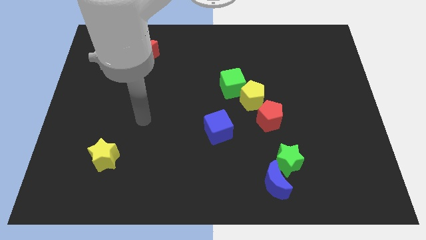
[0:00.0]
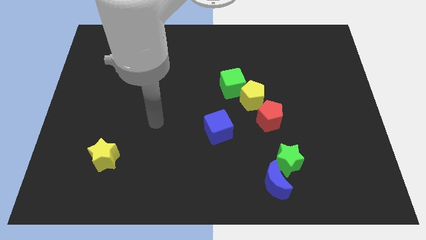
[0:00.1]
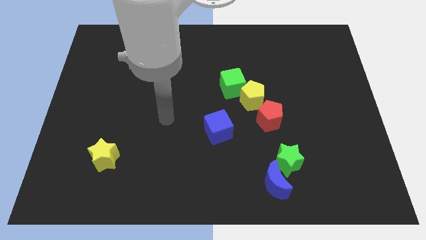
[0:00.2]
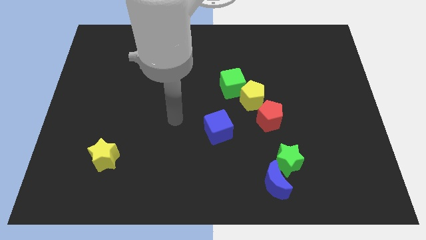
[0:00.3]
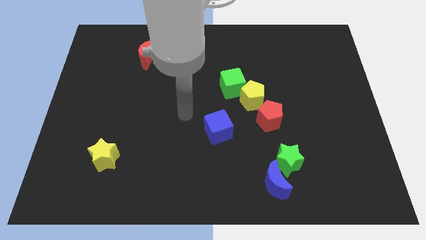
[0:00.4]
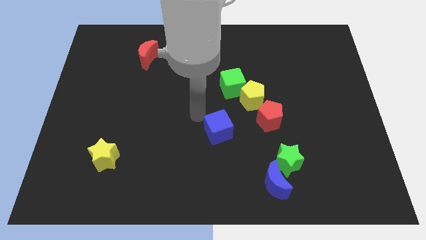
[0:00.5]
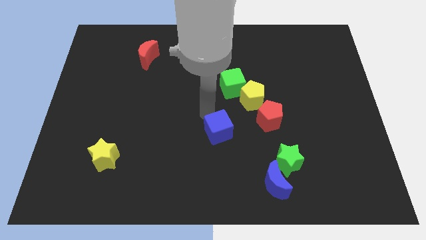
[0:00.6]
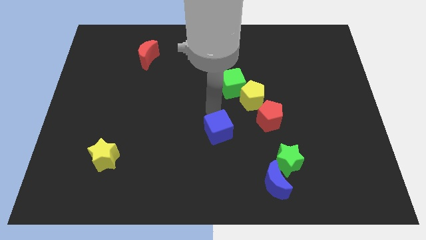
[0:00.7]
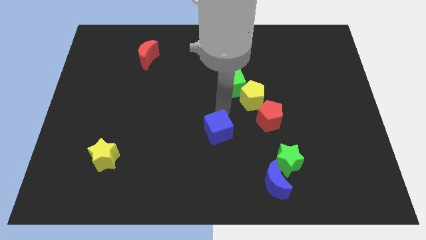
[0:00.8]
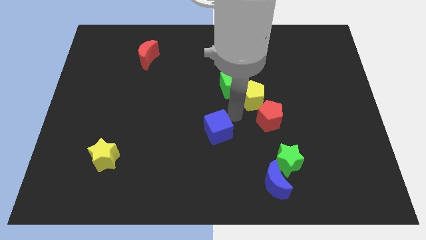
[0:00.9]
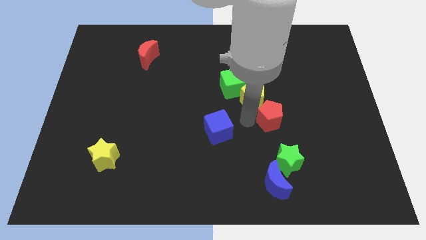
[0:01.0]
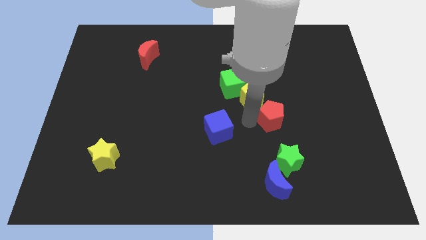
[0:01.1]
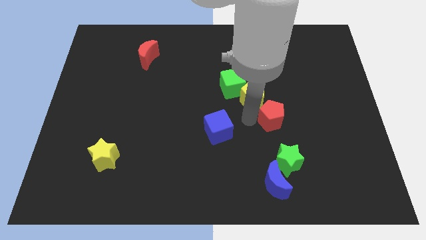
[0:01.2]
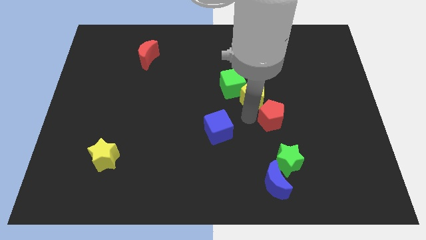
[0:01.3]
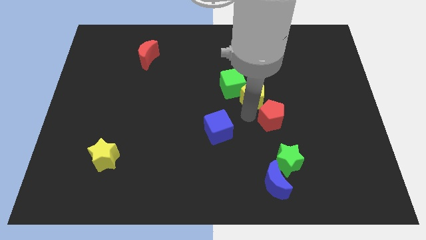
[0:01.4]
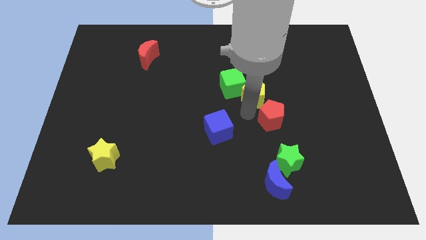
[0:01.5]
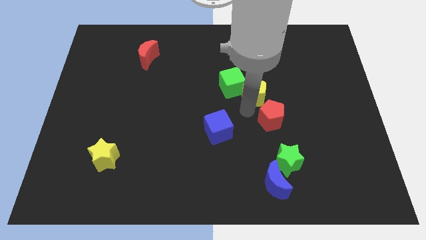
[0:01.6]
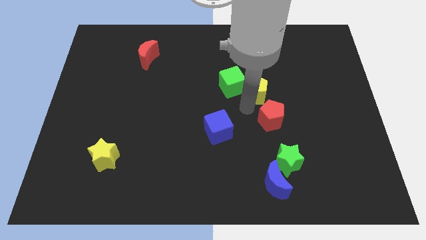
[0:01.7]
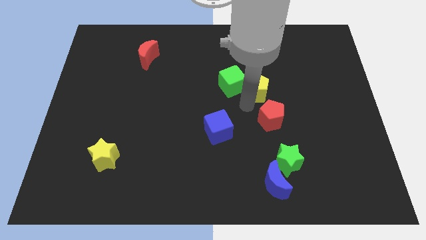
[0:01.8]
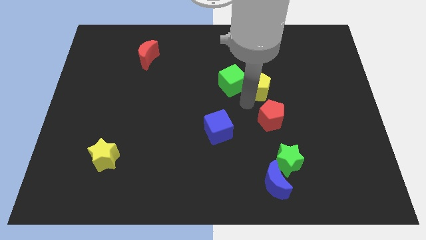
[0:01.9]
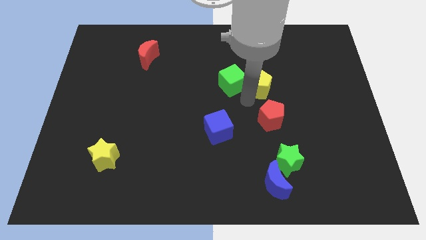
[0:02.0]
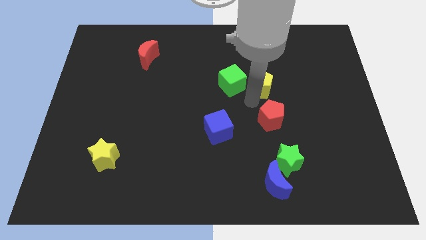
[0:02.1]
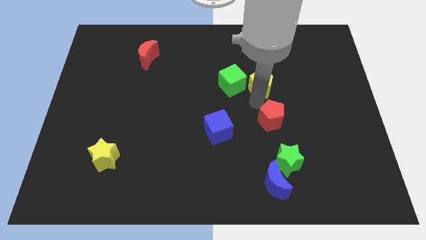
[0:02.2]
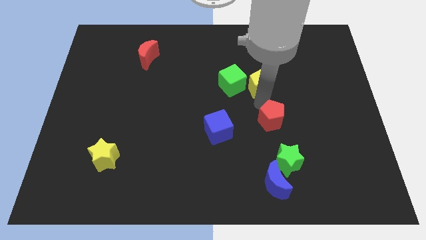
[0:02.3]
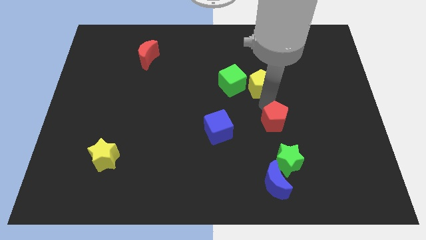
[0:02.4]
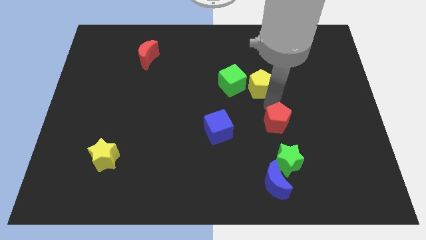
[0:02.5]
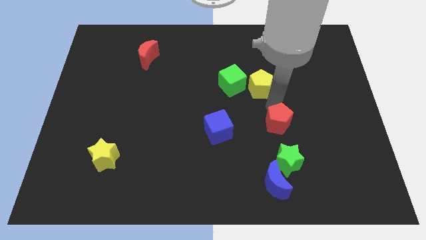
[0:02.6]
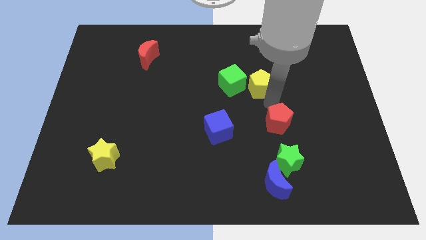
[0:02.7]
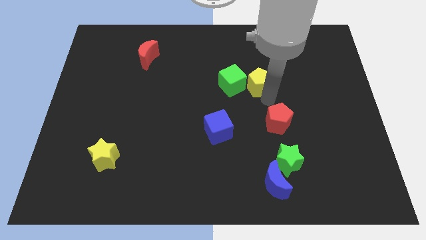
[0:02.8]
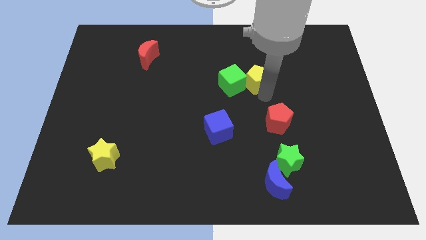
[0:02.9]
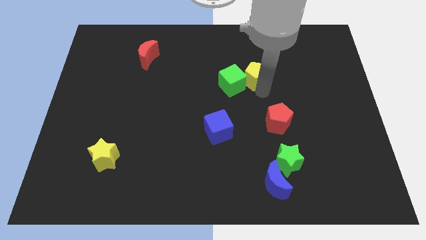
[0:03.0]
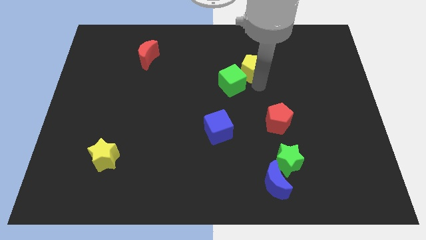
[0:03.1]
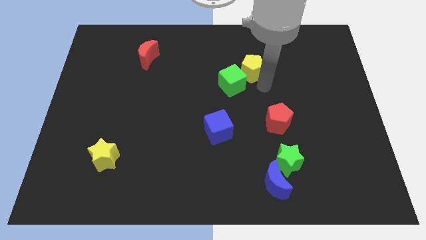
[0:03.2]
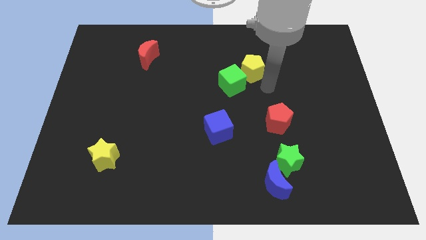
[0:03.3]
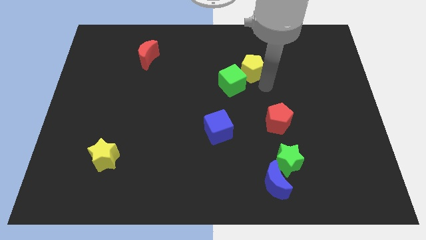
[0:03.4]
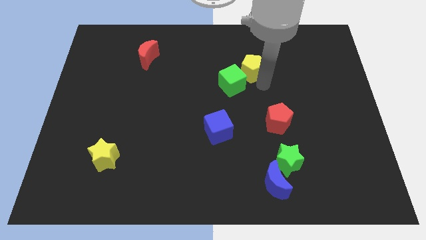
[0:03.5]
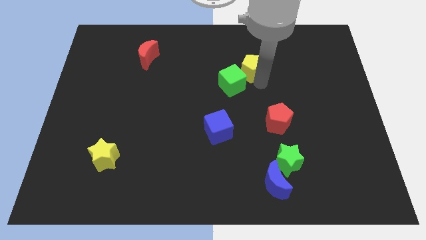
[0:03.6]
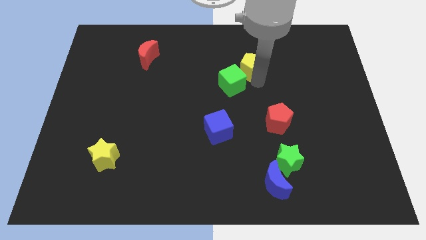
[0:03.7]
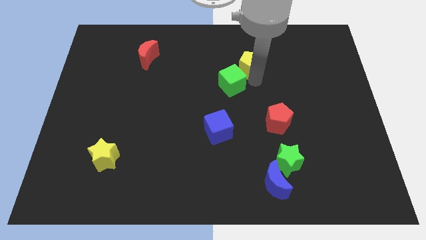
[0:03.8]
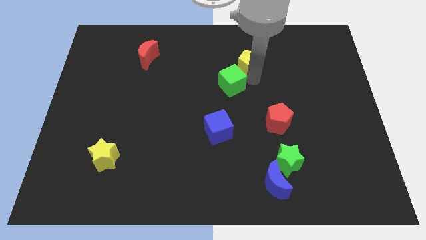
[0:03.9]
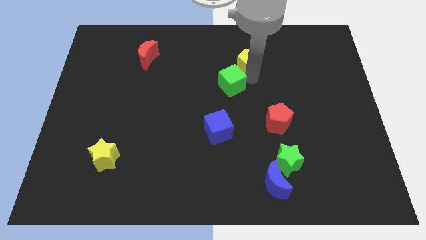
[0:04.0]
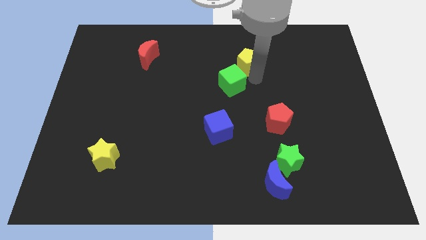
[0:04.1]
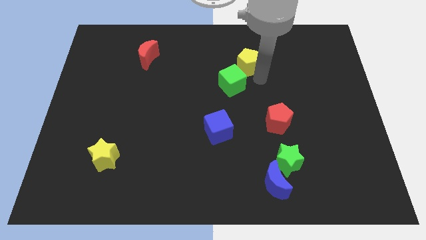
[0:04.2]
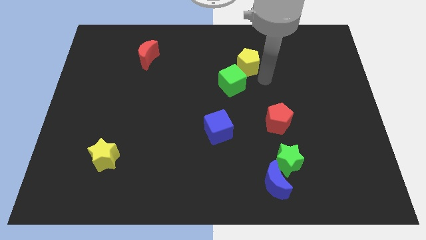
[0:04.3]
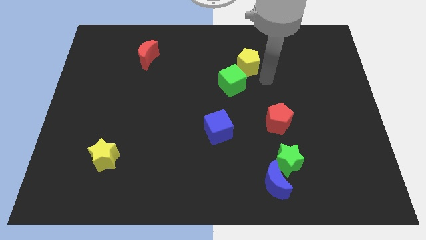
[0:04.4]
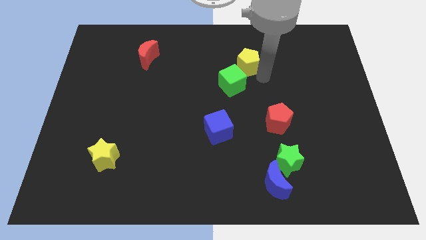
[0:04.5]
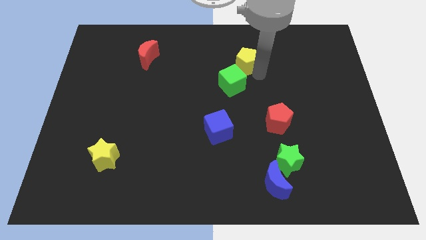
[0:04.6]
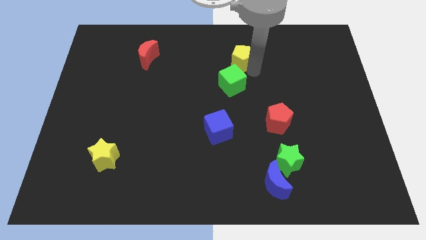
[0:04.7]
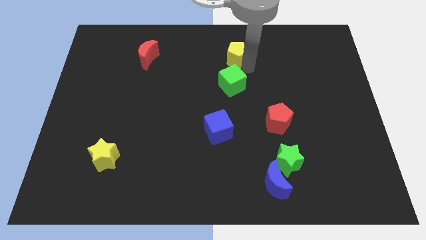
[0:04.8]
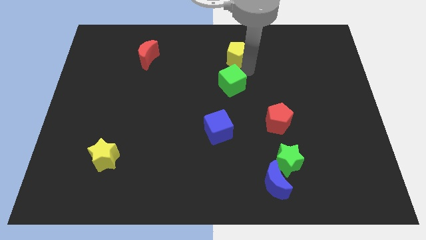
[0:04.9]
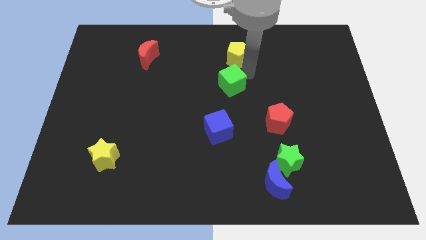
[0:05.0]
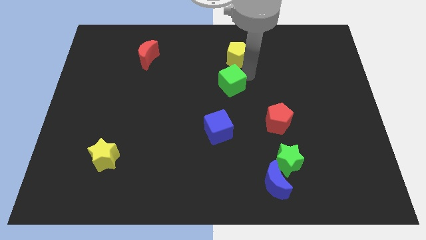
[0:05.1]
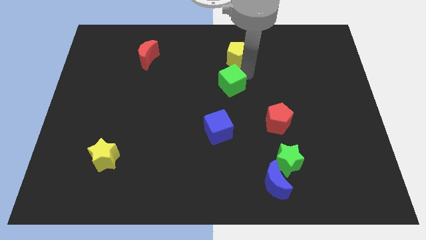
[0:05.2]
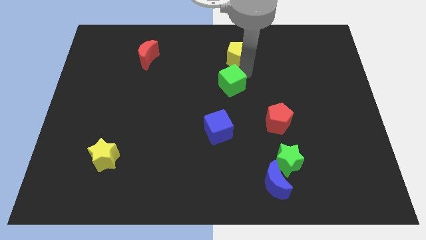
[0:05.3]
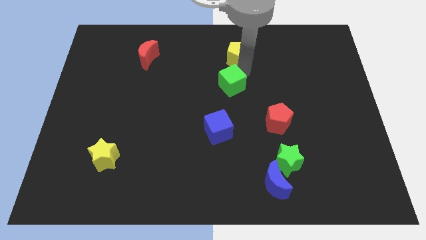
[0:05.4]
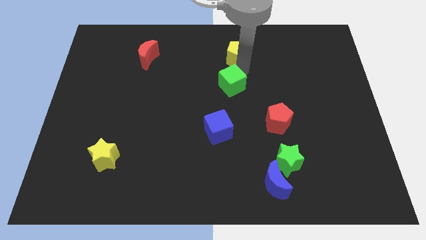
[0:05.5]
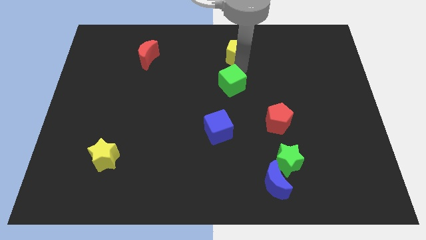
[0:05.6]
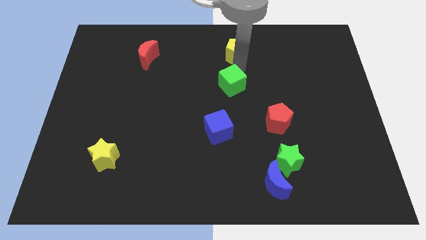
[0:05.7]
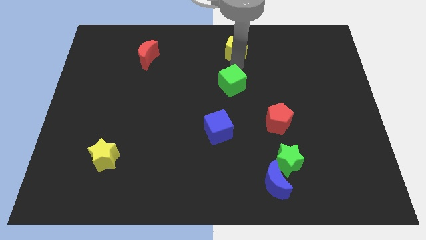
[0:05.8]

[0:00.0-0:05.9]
put the yellow pentagon to the top

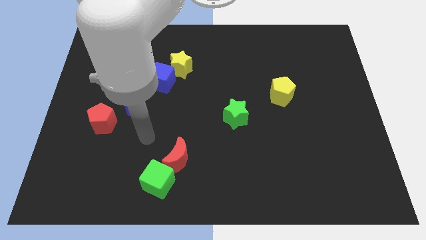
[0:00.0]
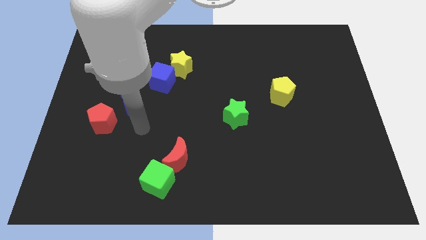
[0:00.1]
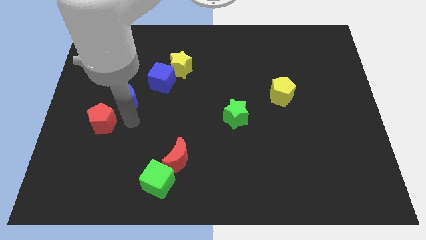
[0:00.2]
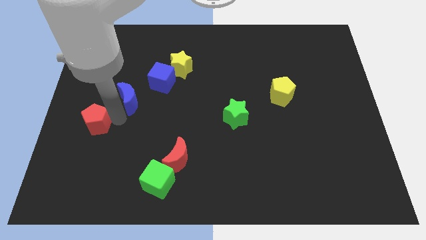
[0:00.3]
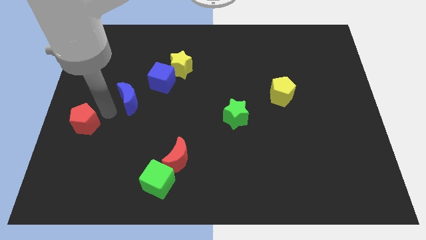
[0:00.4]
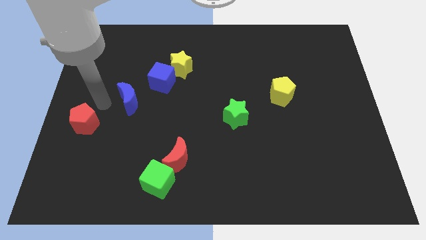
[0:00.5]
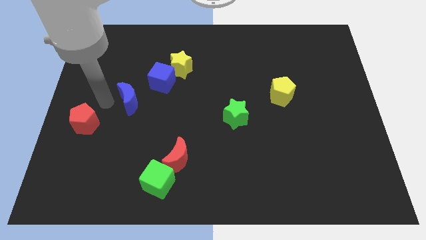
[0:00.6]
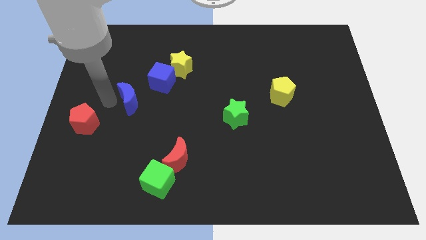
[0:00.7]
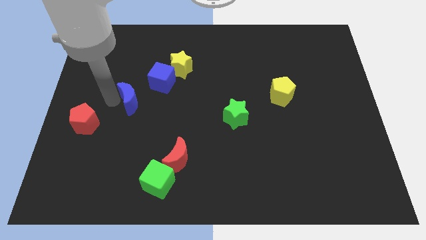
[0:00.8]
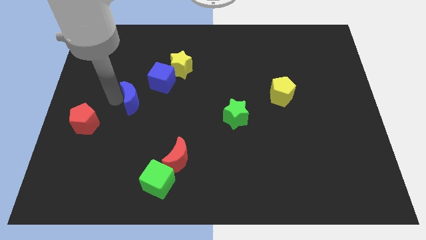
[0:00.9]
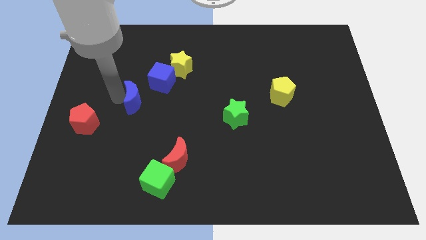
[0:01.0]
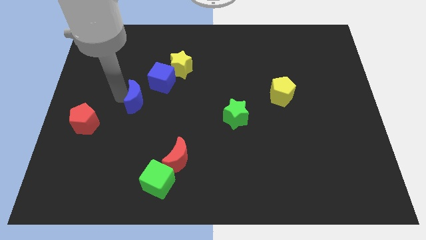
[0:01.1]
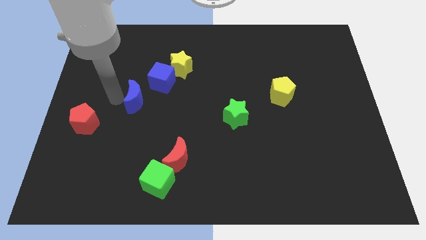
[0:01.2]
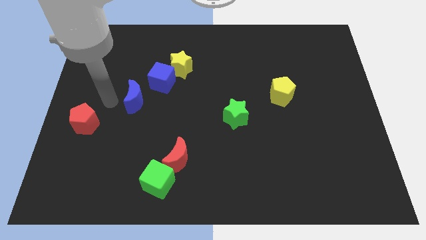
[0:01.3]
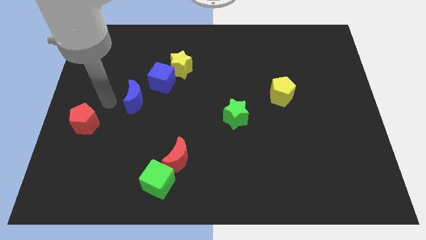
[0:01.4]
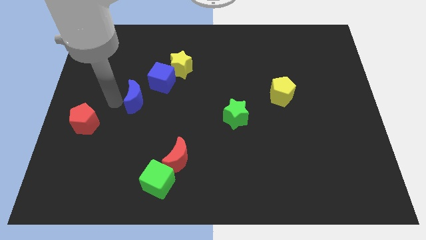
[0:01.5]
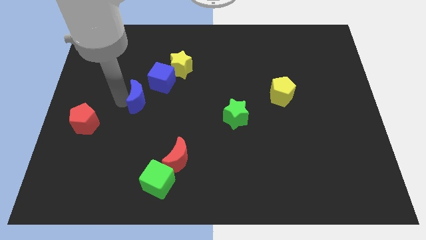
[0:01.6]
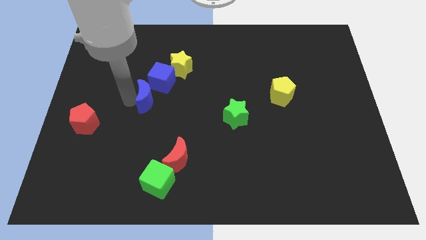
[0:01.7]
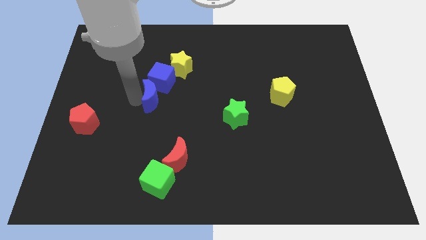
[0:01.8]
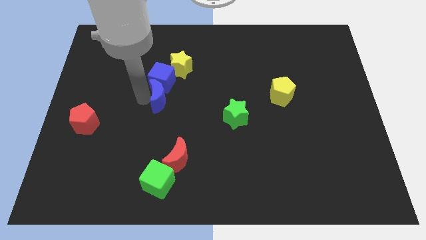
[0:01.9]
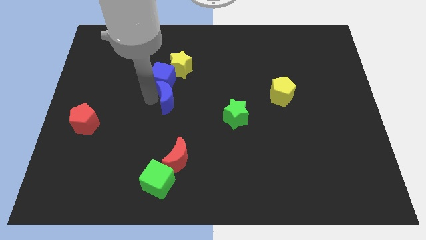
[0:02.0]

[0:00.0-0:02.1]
move the blue moon to the middle of the board

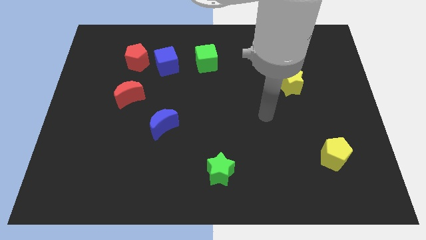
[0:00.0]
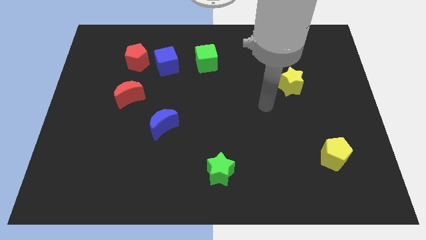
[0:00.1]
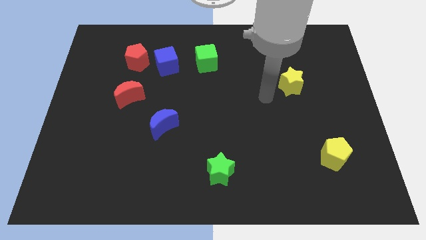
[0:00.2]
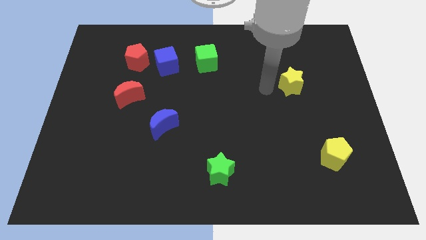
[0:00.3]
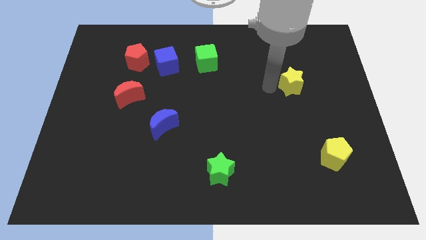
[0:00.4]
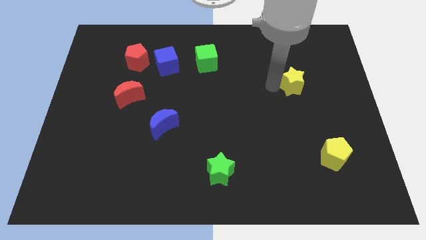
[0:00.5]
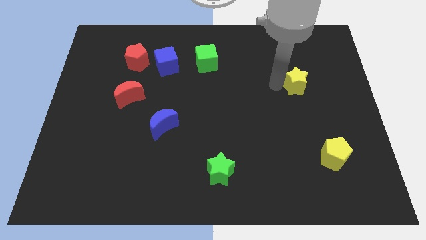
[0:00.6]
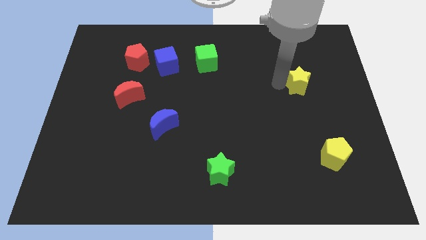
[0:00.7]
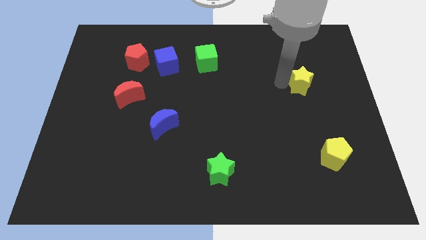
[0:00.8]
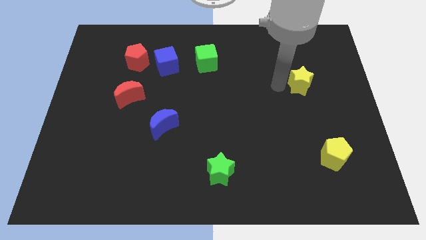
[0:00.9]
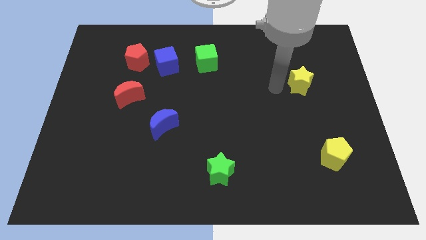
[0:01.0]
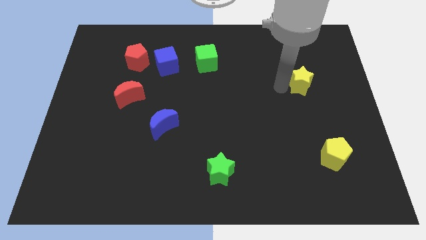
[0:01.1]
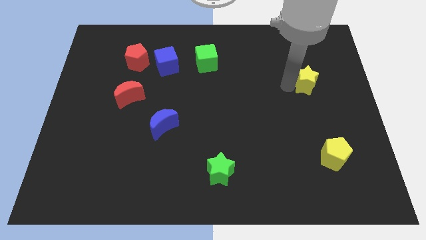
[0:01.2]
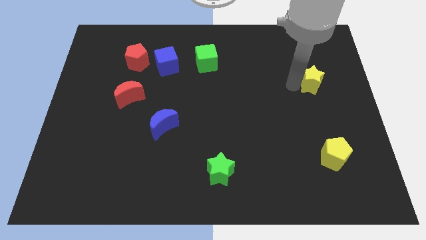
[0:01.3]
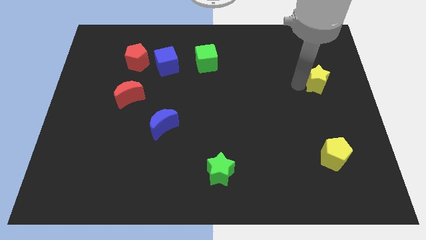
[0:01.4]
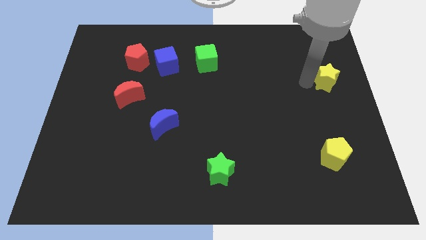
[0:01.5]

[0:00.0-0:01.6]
put the yellow star to the right side of the board
